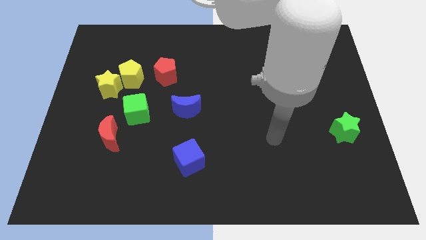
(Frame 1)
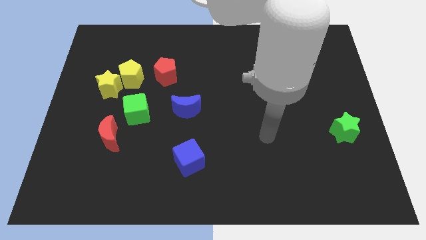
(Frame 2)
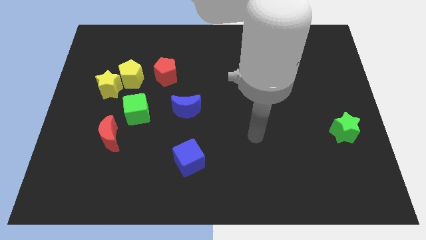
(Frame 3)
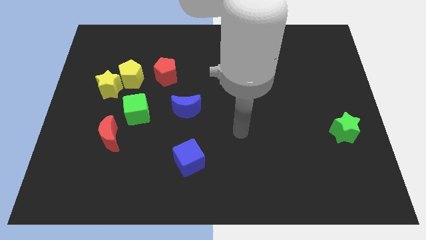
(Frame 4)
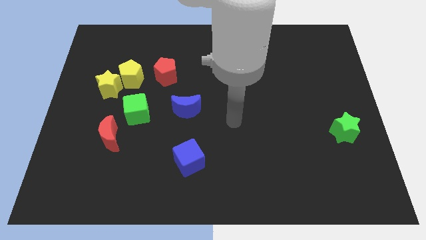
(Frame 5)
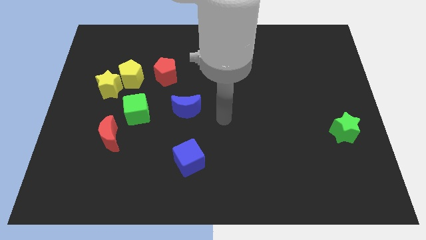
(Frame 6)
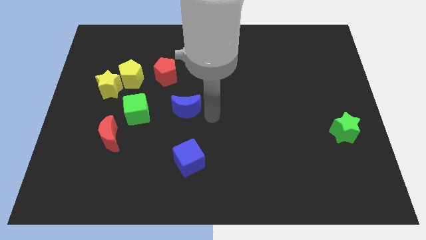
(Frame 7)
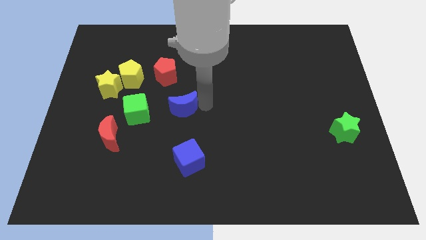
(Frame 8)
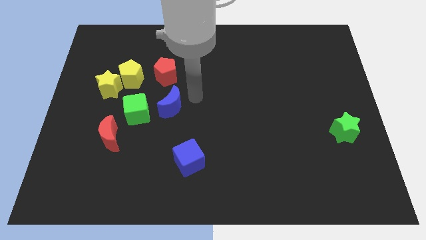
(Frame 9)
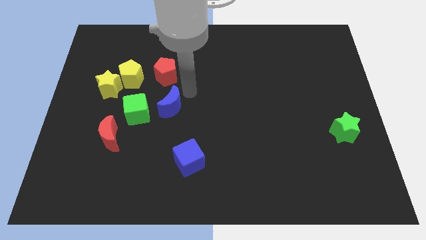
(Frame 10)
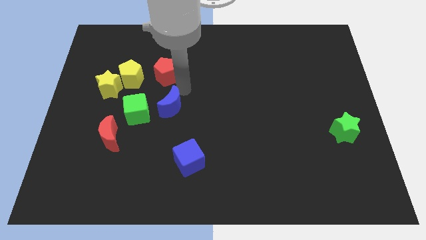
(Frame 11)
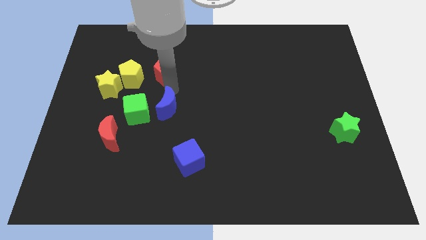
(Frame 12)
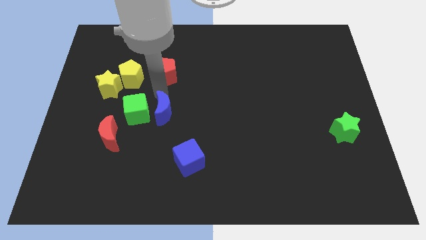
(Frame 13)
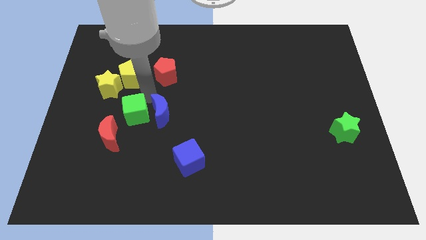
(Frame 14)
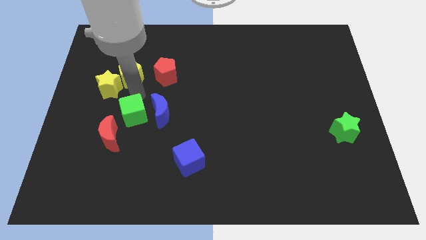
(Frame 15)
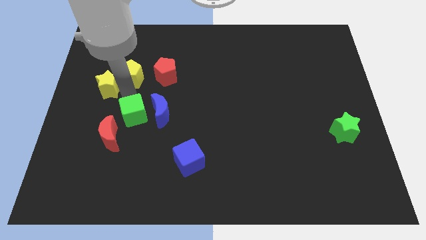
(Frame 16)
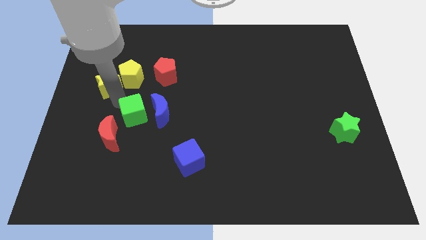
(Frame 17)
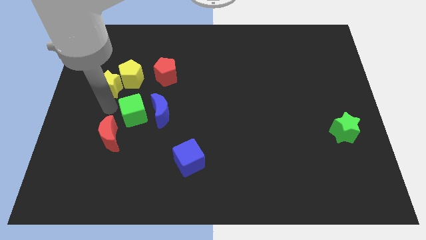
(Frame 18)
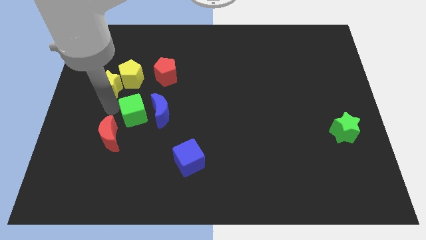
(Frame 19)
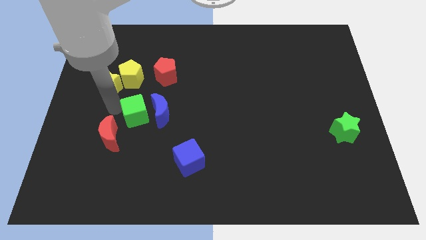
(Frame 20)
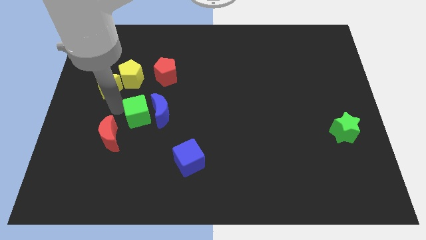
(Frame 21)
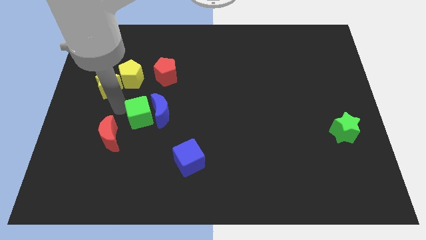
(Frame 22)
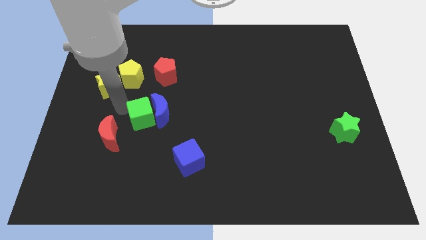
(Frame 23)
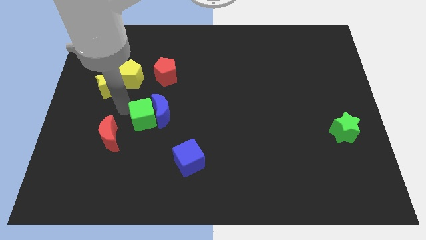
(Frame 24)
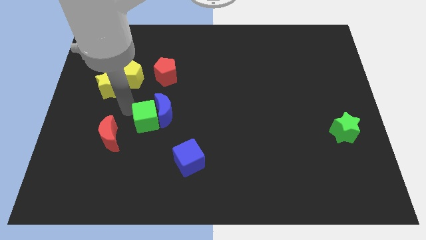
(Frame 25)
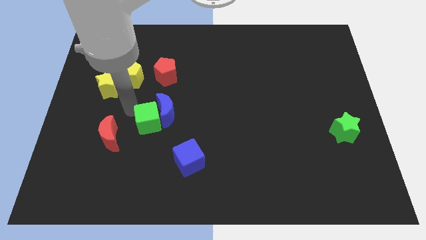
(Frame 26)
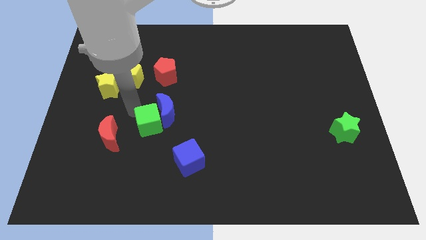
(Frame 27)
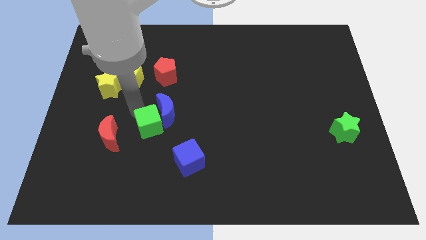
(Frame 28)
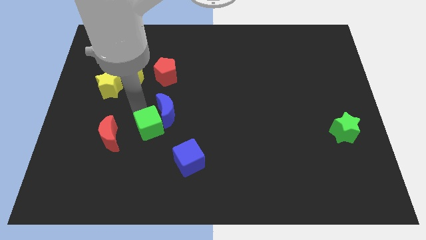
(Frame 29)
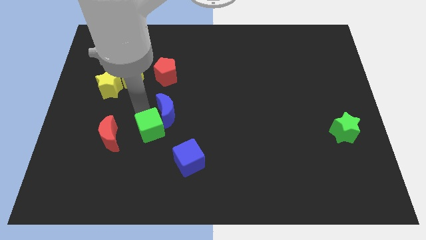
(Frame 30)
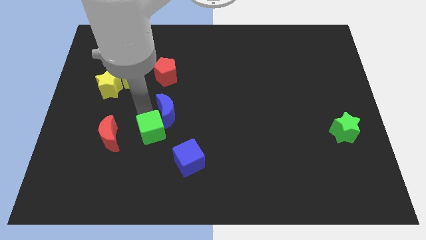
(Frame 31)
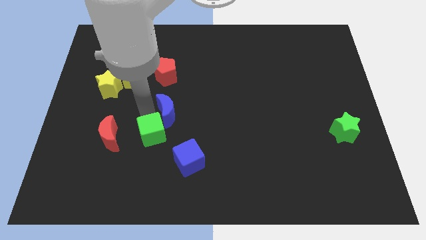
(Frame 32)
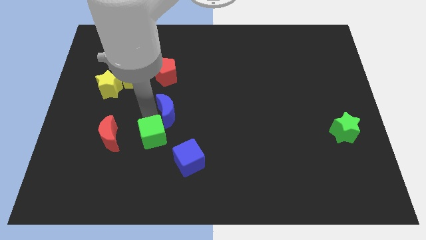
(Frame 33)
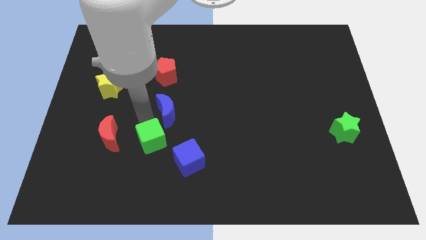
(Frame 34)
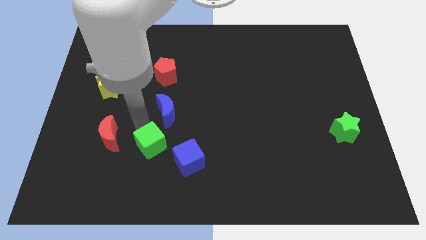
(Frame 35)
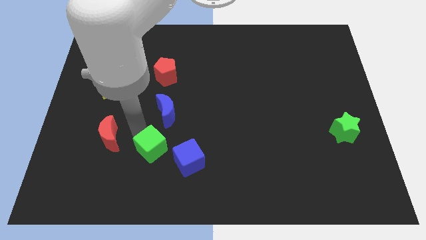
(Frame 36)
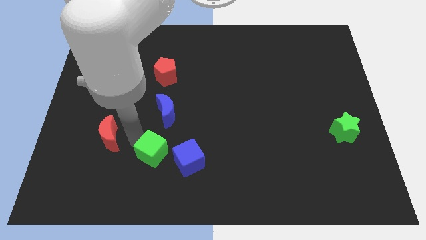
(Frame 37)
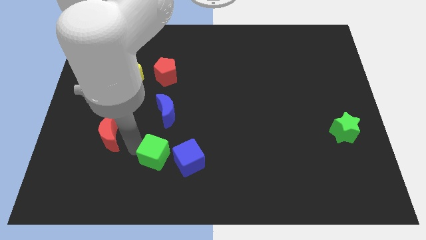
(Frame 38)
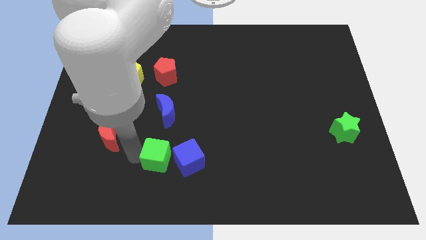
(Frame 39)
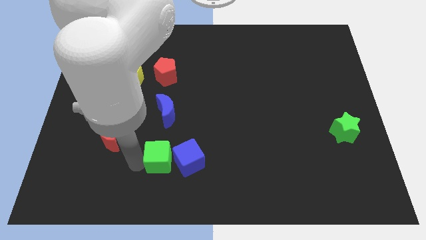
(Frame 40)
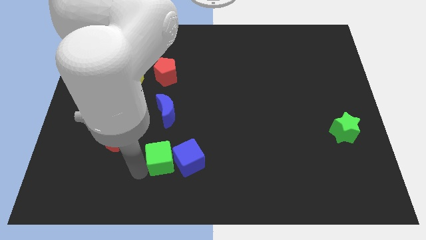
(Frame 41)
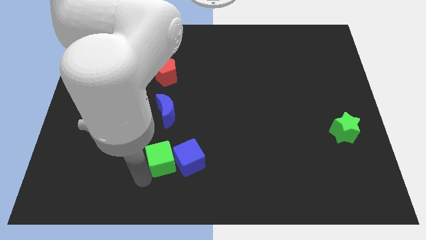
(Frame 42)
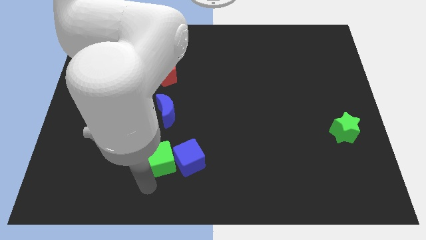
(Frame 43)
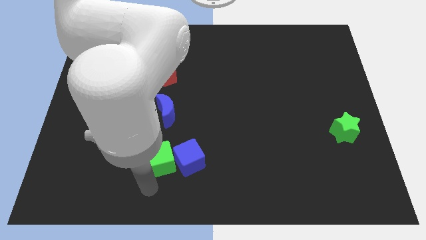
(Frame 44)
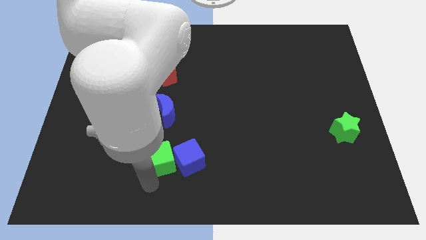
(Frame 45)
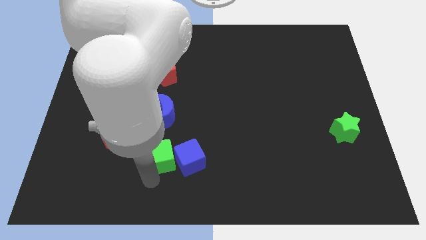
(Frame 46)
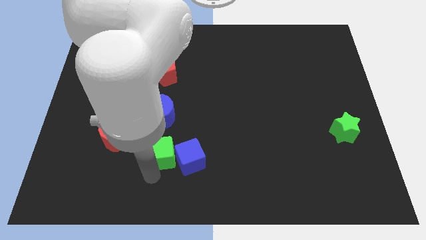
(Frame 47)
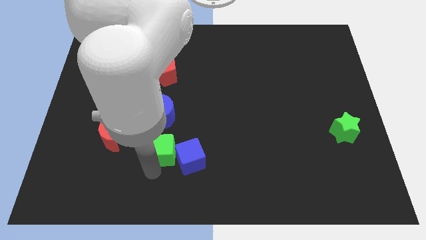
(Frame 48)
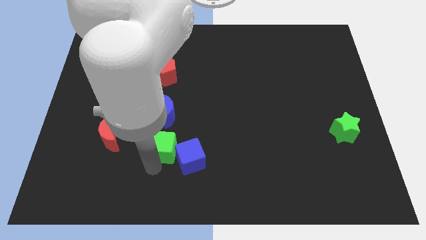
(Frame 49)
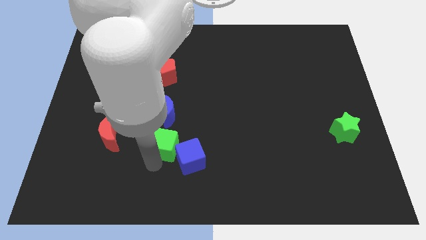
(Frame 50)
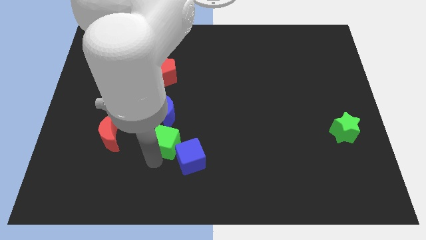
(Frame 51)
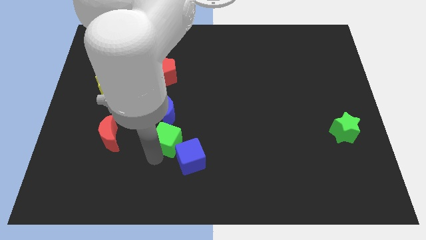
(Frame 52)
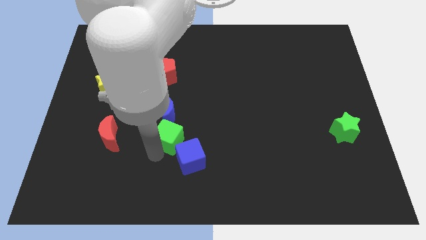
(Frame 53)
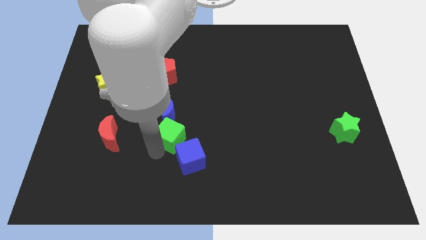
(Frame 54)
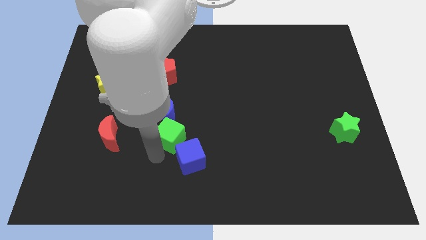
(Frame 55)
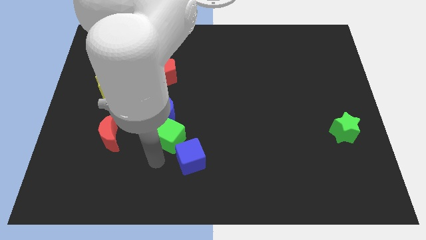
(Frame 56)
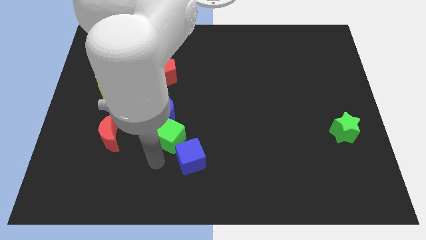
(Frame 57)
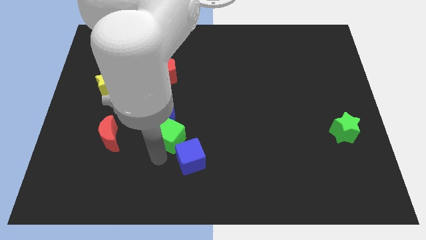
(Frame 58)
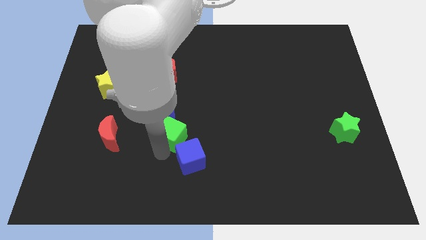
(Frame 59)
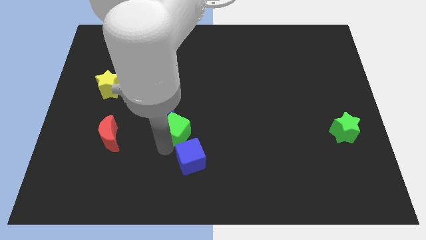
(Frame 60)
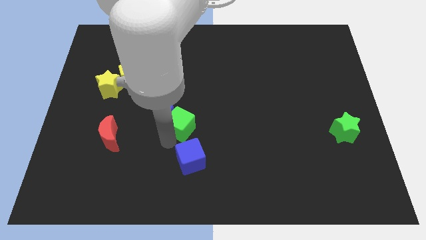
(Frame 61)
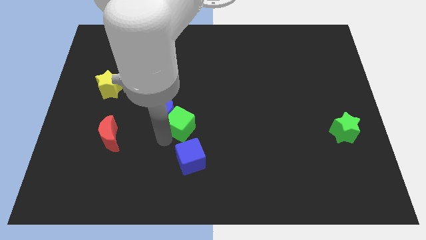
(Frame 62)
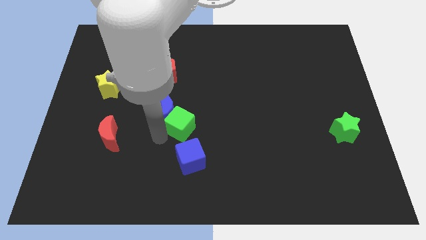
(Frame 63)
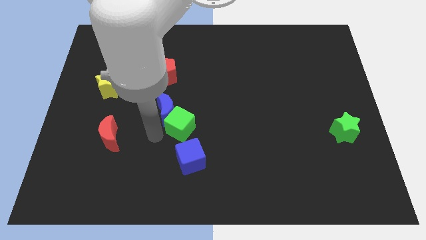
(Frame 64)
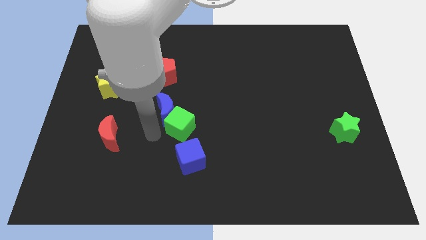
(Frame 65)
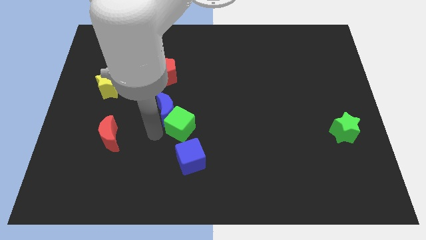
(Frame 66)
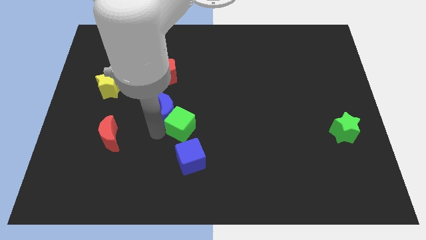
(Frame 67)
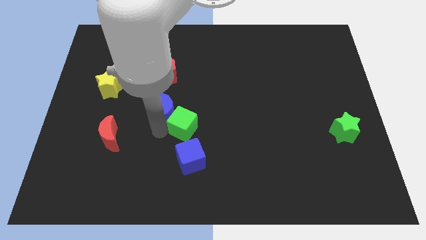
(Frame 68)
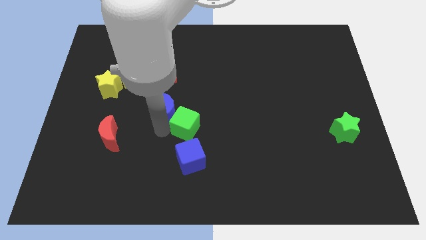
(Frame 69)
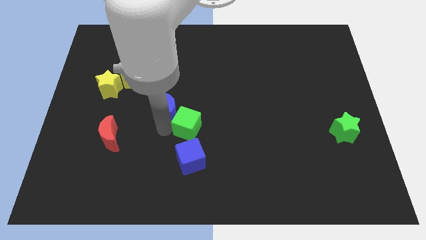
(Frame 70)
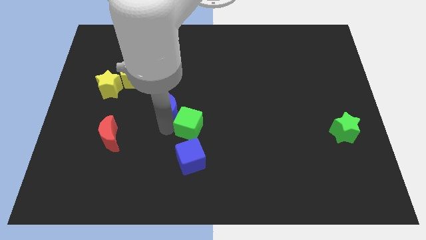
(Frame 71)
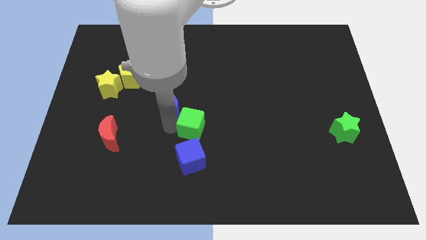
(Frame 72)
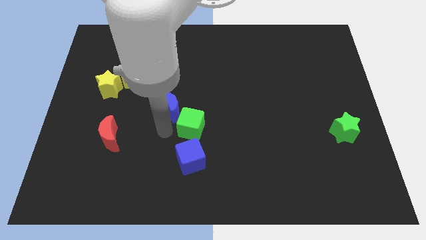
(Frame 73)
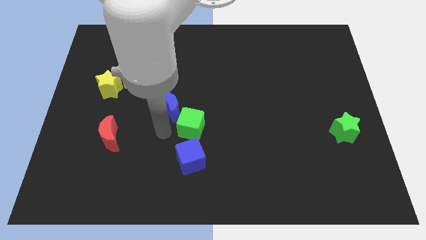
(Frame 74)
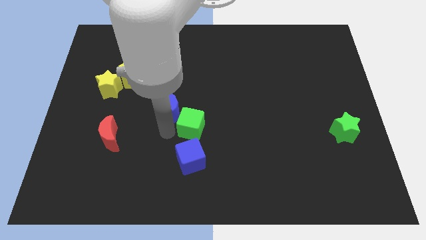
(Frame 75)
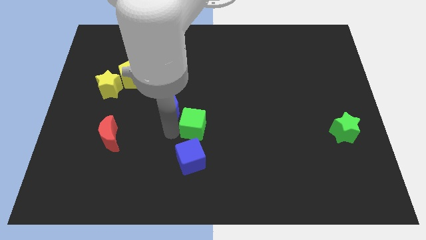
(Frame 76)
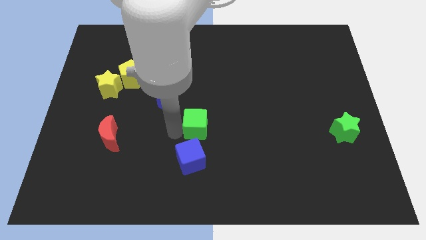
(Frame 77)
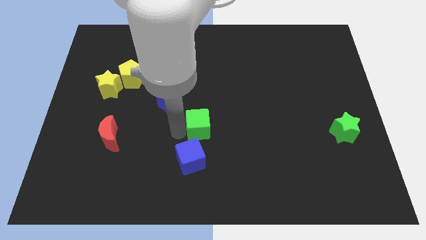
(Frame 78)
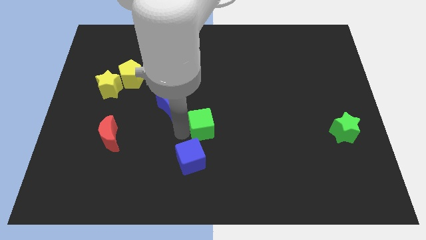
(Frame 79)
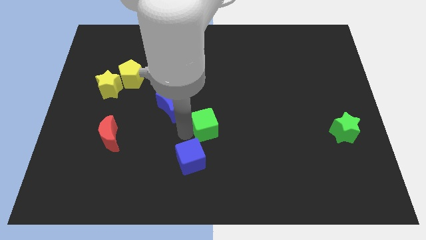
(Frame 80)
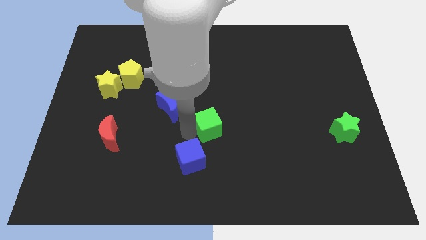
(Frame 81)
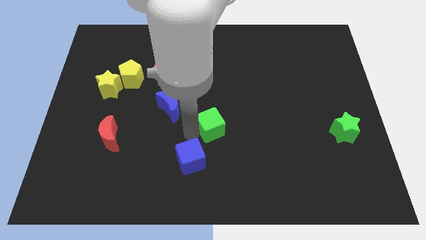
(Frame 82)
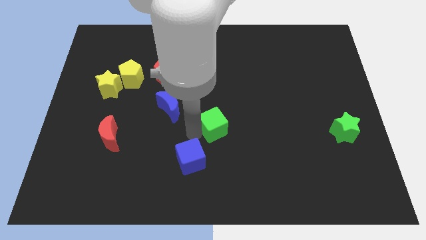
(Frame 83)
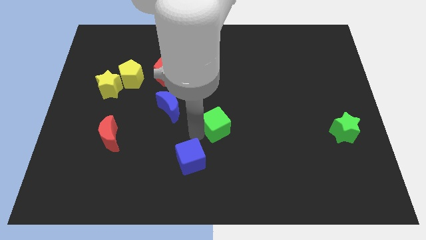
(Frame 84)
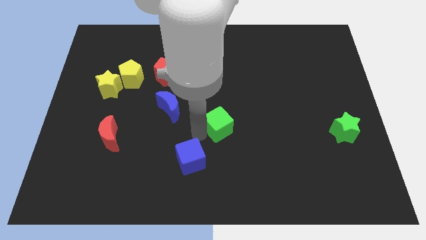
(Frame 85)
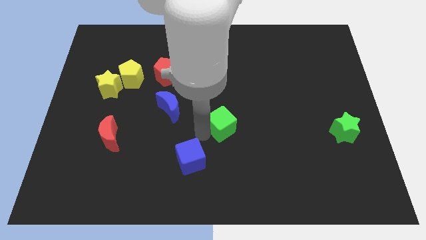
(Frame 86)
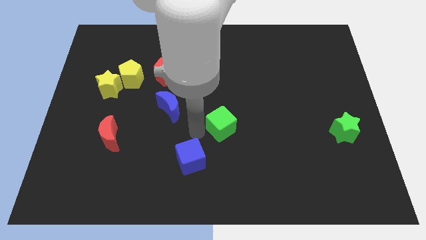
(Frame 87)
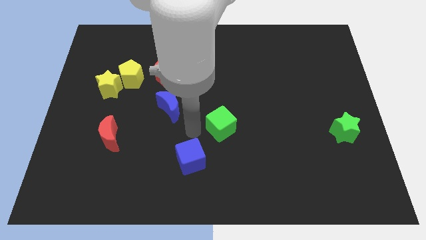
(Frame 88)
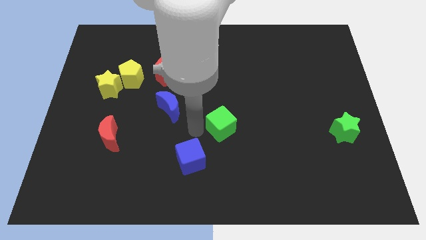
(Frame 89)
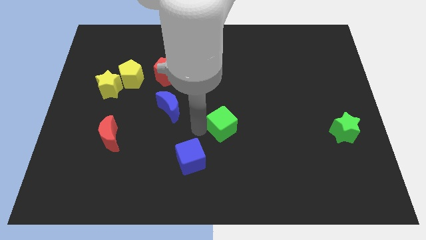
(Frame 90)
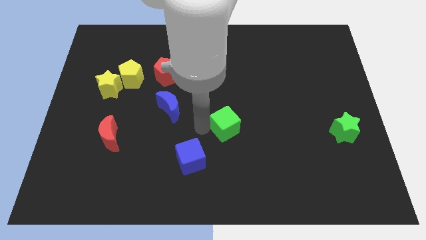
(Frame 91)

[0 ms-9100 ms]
push the green cube right
